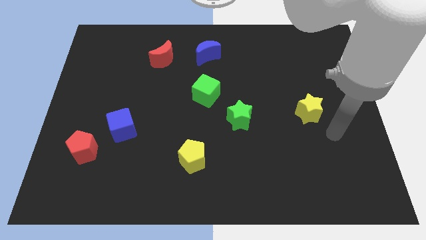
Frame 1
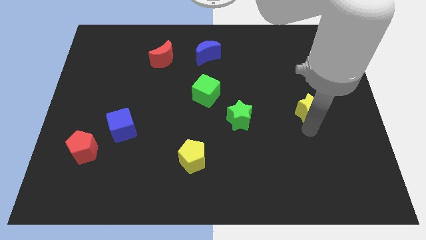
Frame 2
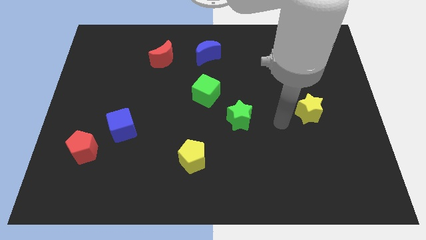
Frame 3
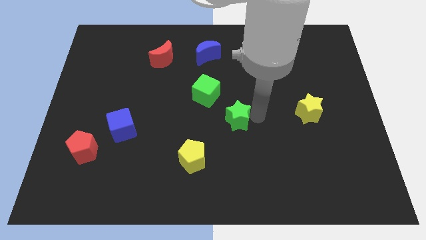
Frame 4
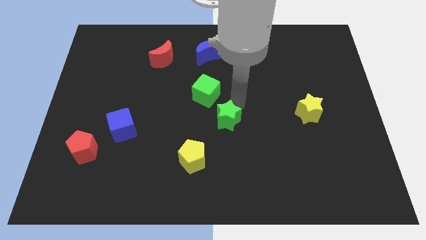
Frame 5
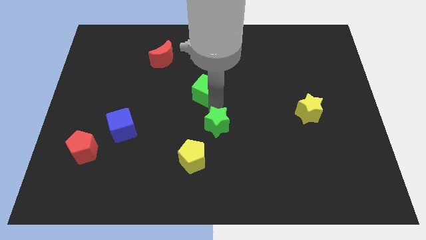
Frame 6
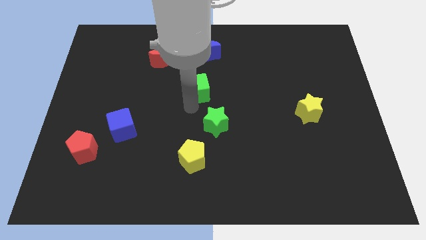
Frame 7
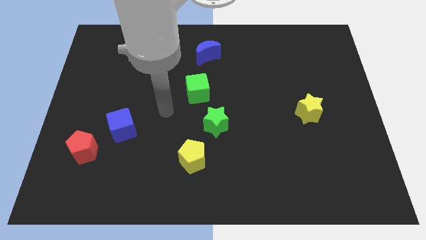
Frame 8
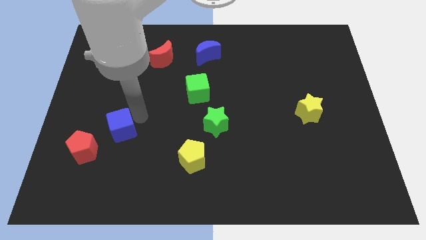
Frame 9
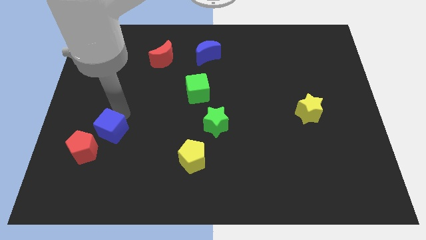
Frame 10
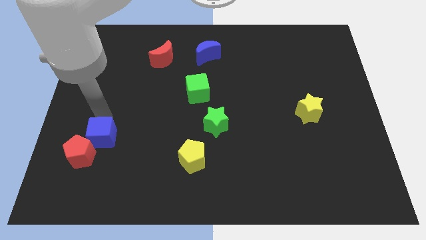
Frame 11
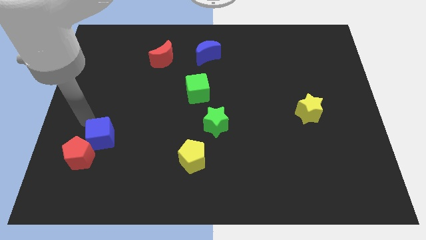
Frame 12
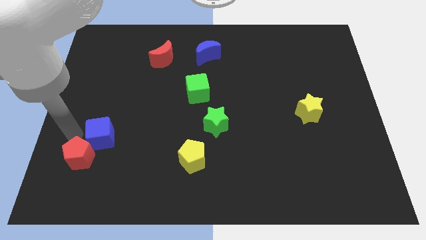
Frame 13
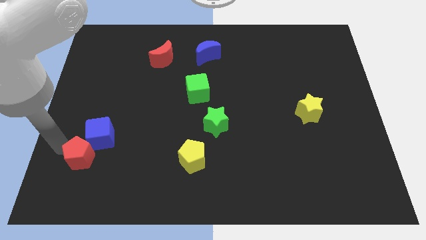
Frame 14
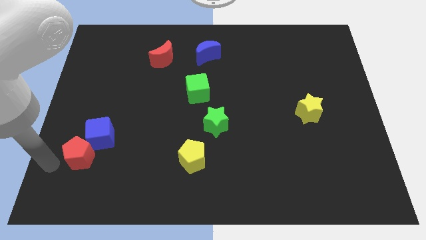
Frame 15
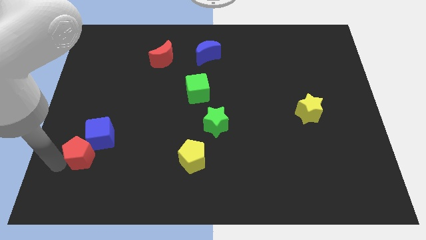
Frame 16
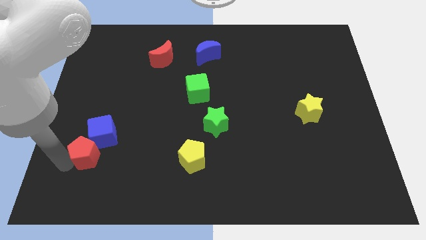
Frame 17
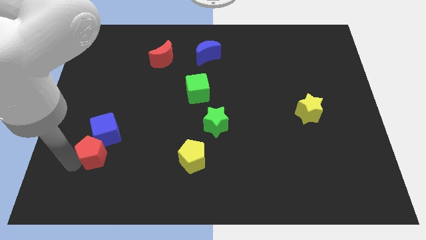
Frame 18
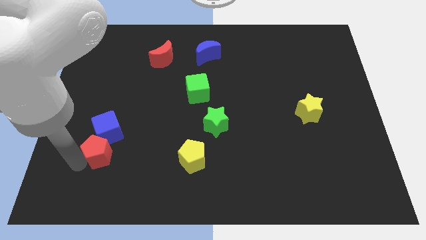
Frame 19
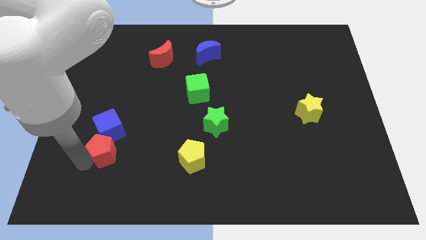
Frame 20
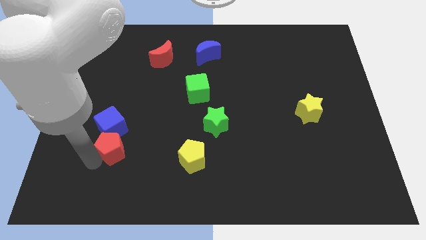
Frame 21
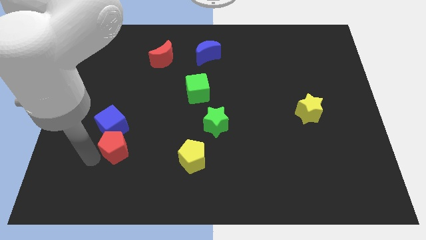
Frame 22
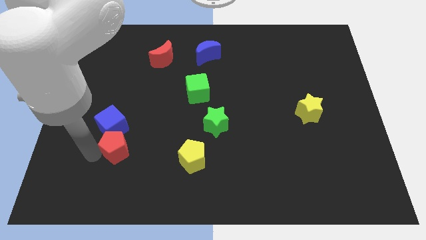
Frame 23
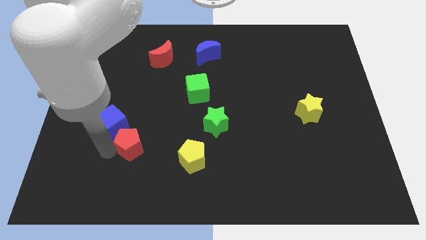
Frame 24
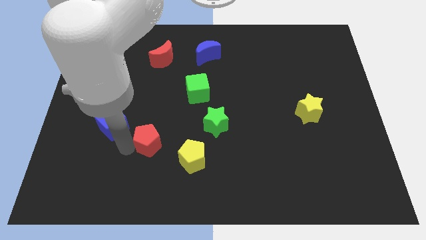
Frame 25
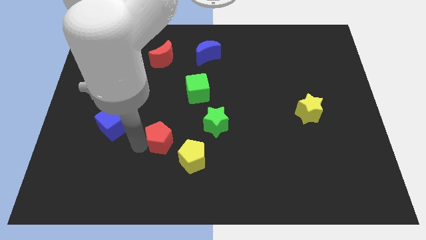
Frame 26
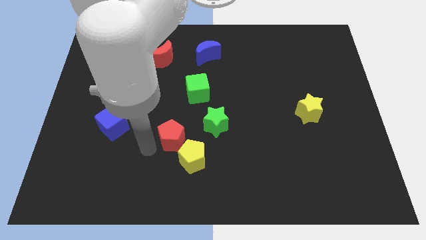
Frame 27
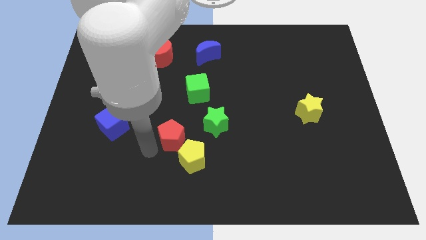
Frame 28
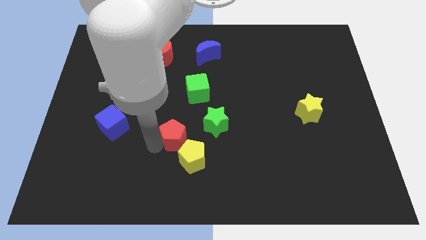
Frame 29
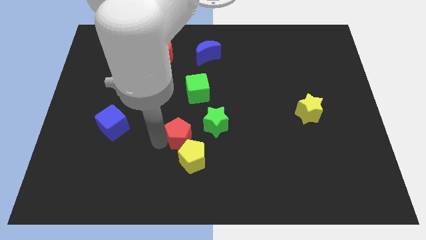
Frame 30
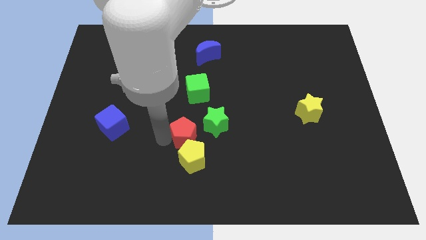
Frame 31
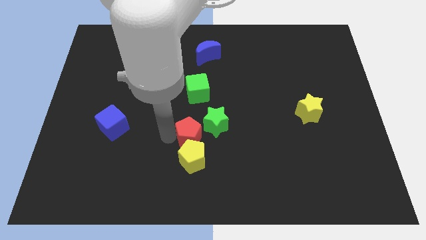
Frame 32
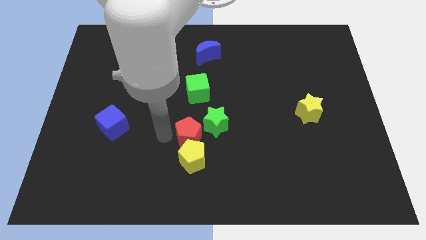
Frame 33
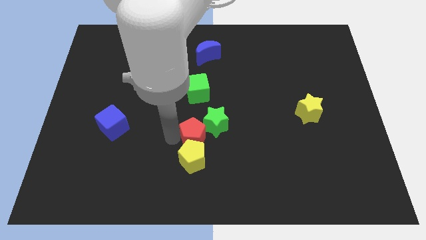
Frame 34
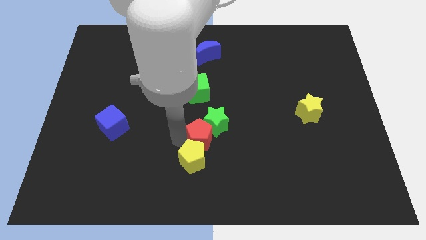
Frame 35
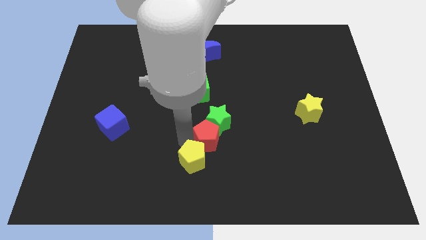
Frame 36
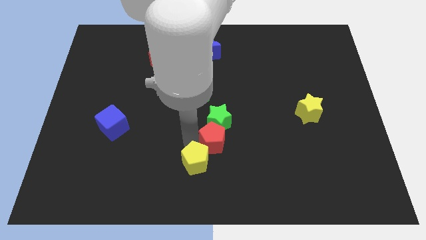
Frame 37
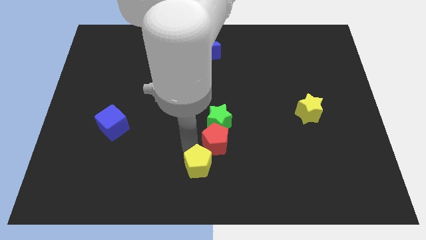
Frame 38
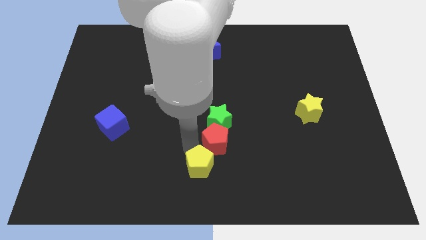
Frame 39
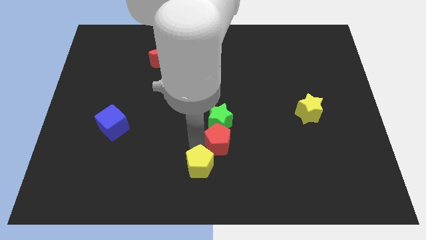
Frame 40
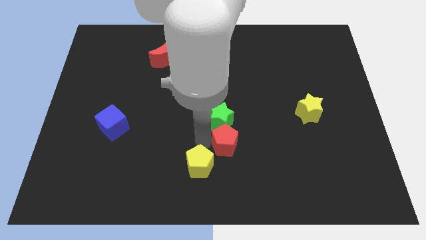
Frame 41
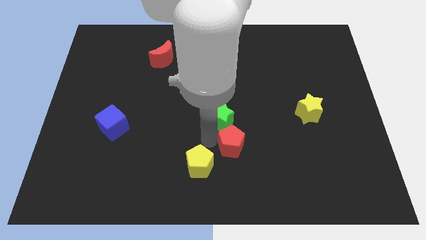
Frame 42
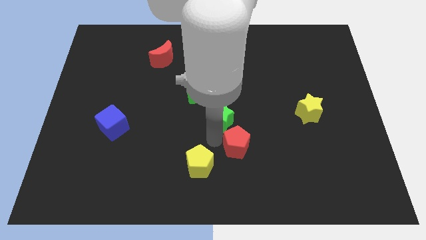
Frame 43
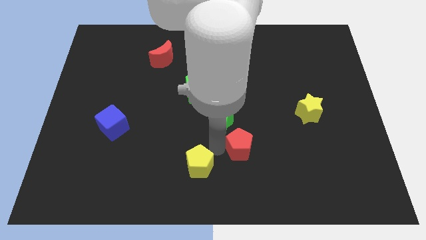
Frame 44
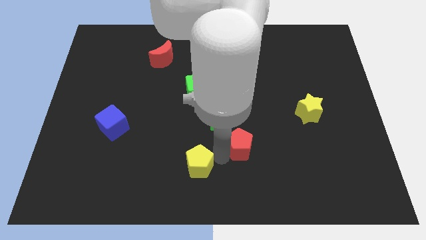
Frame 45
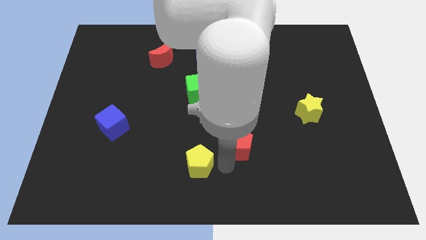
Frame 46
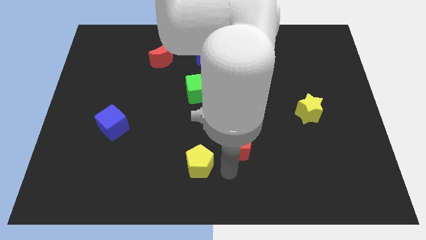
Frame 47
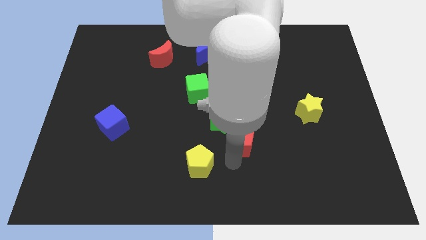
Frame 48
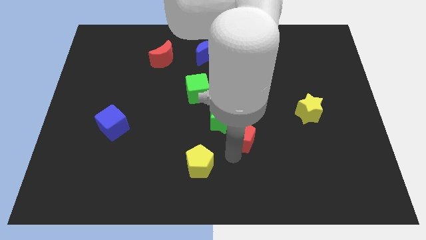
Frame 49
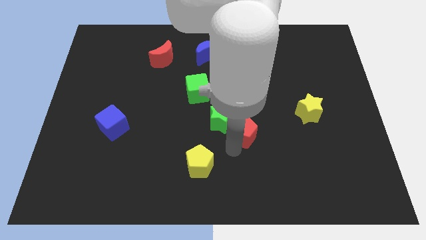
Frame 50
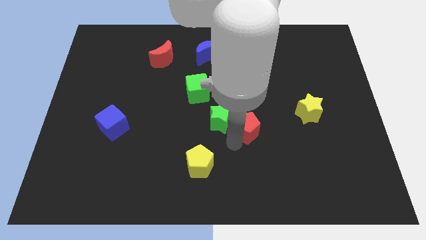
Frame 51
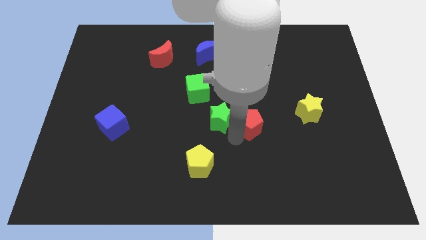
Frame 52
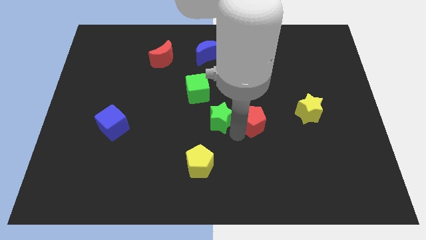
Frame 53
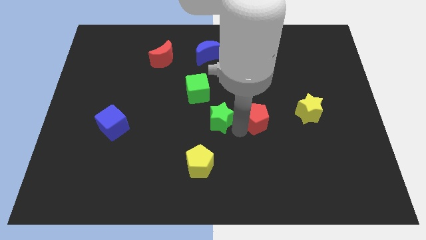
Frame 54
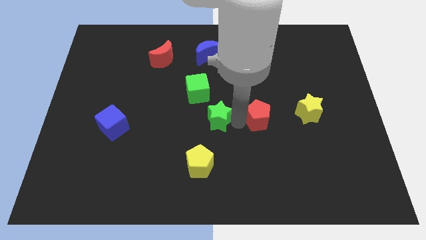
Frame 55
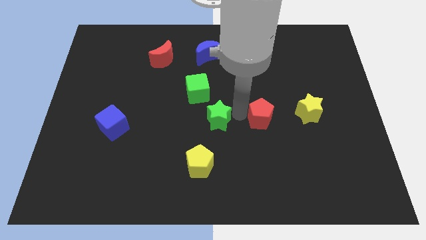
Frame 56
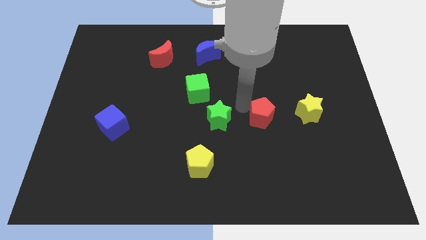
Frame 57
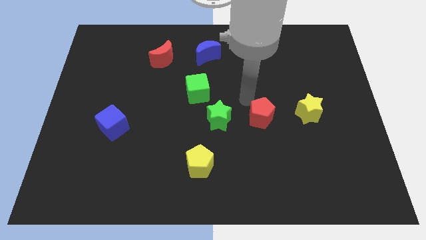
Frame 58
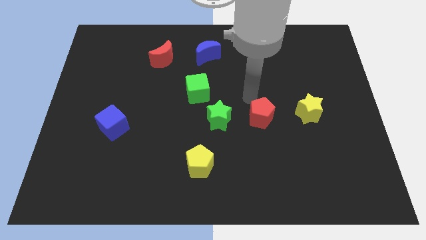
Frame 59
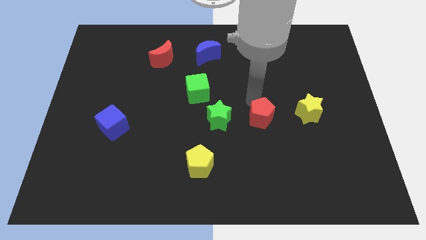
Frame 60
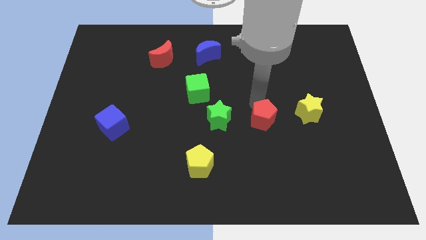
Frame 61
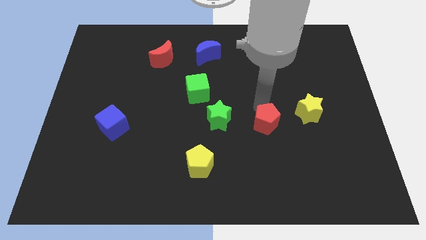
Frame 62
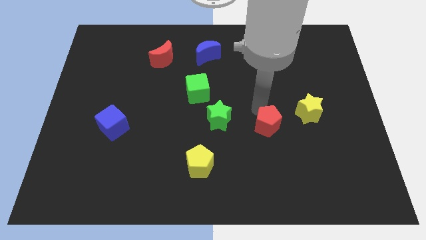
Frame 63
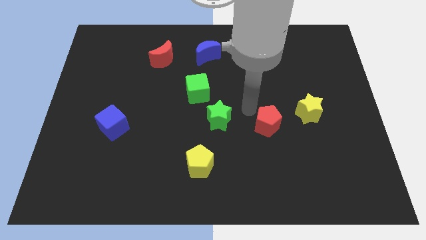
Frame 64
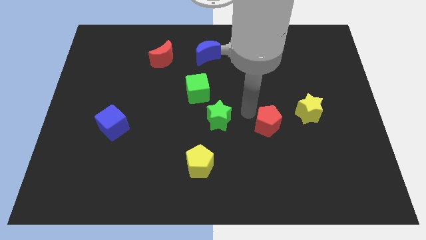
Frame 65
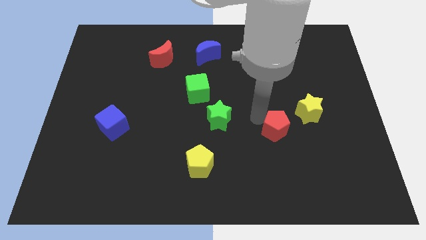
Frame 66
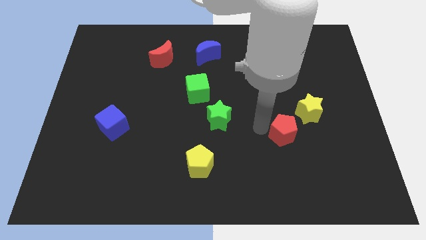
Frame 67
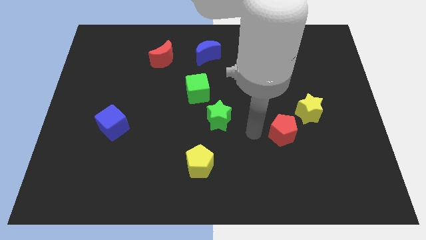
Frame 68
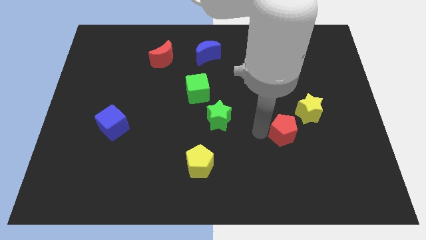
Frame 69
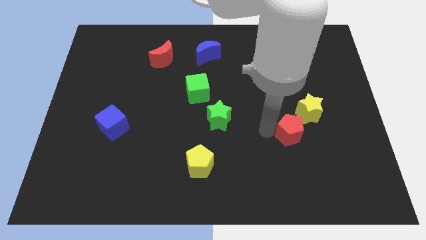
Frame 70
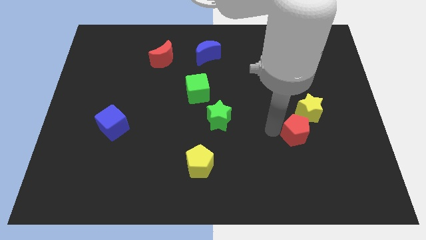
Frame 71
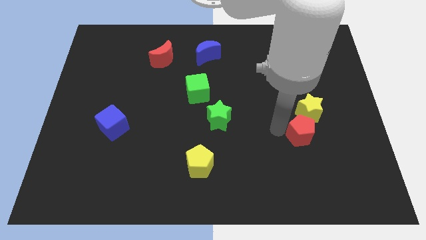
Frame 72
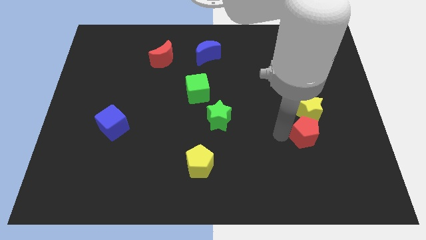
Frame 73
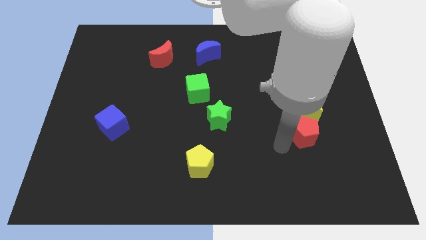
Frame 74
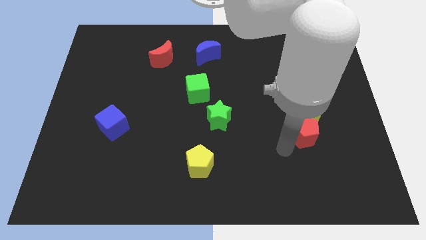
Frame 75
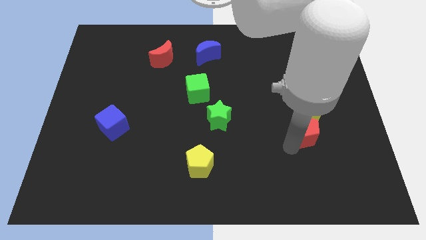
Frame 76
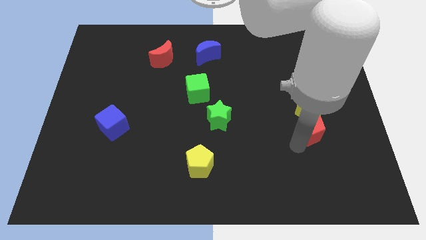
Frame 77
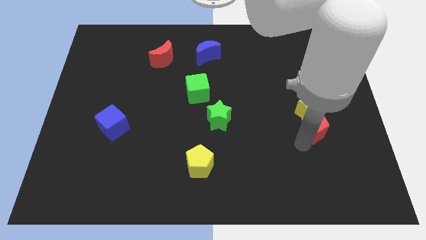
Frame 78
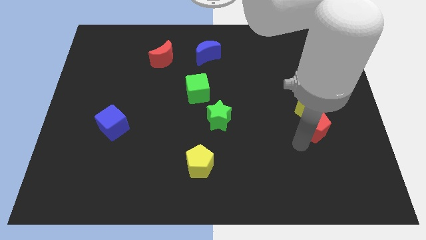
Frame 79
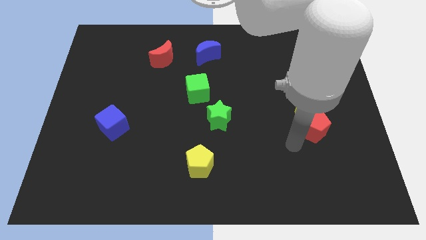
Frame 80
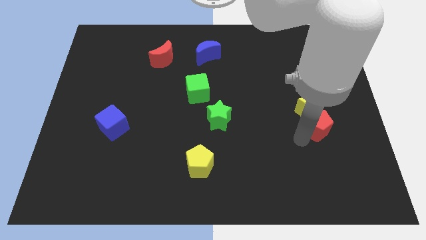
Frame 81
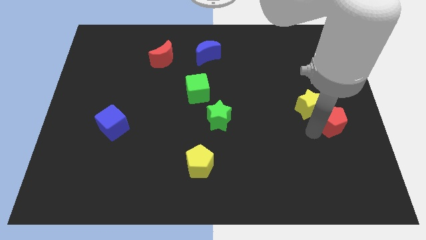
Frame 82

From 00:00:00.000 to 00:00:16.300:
slide the red pentagon to the center right
